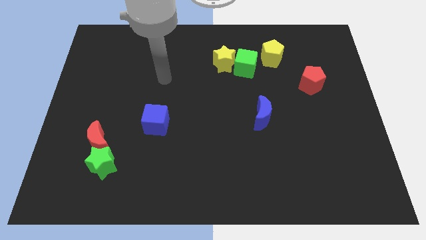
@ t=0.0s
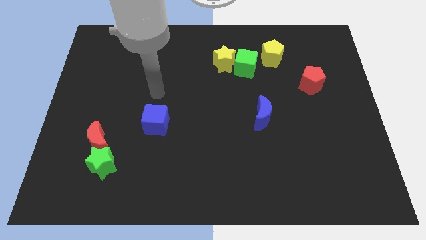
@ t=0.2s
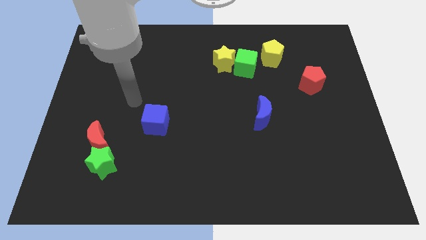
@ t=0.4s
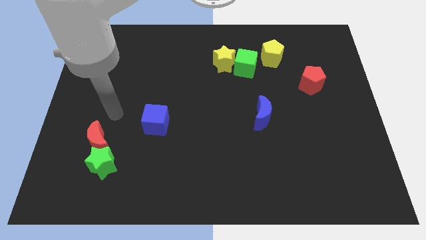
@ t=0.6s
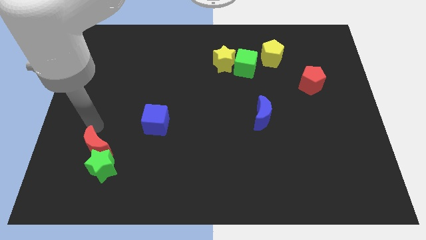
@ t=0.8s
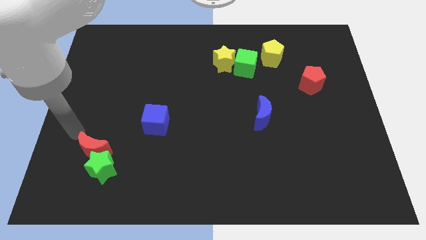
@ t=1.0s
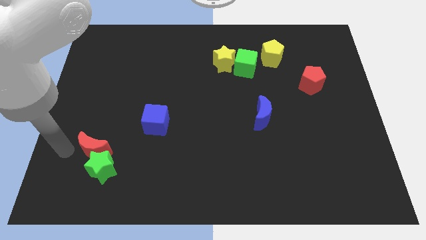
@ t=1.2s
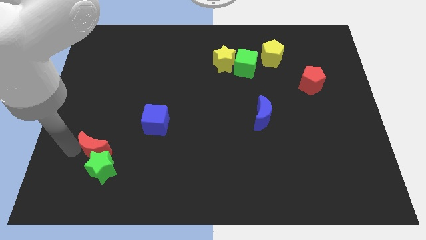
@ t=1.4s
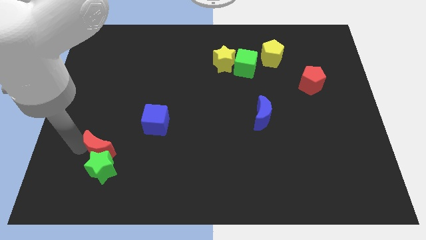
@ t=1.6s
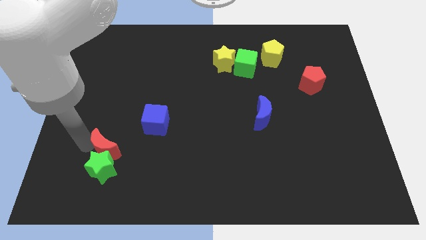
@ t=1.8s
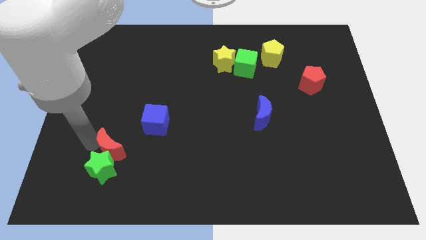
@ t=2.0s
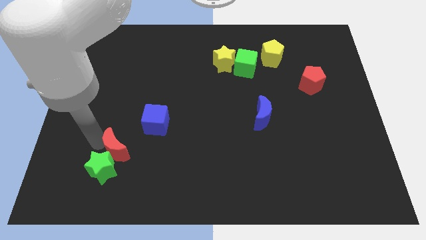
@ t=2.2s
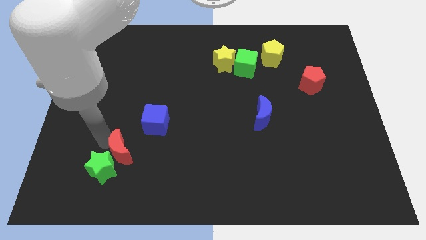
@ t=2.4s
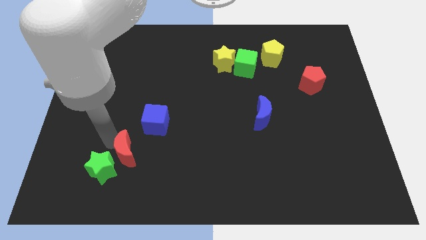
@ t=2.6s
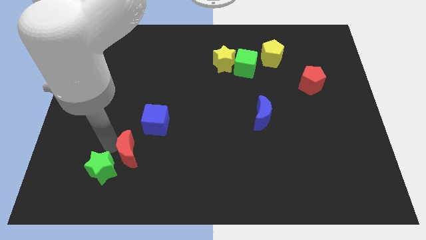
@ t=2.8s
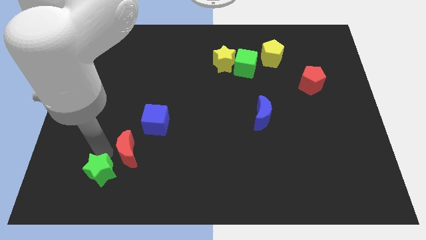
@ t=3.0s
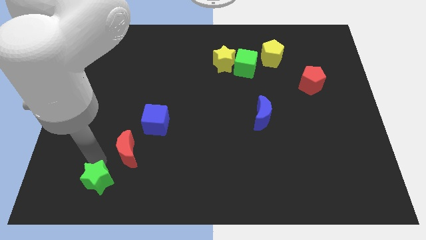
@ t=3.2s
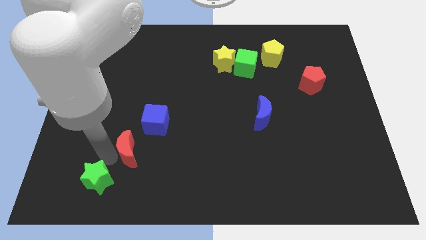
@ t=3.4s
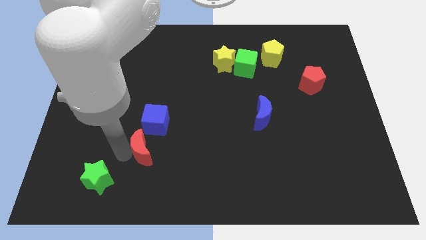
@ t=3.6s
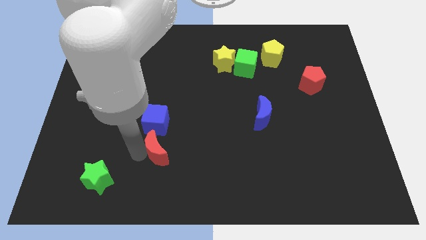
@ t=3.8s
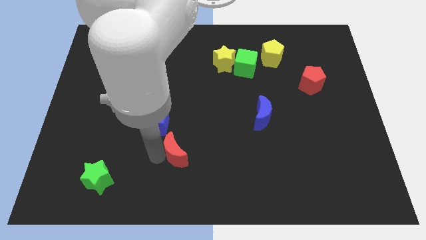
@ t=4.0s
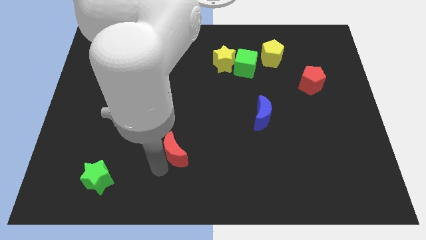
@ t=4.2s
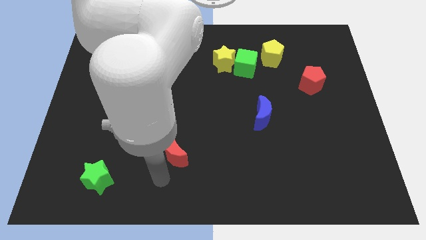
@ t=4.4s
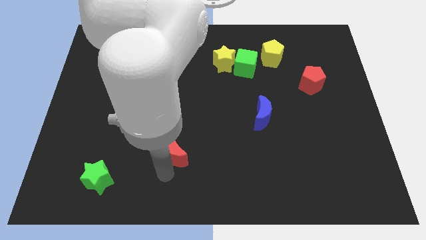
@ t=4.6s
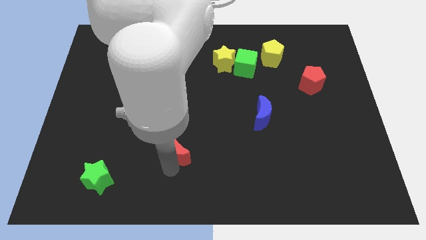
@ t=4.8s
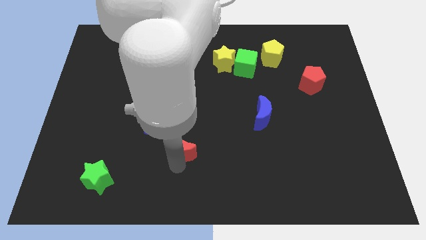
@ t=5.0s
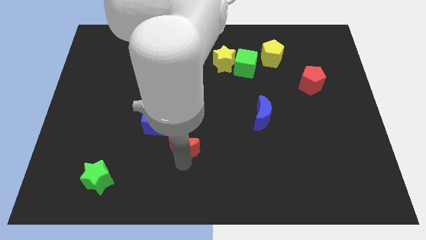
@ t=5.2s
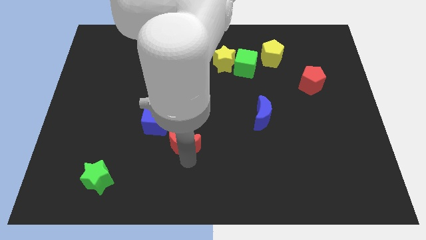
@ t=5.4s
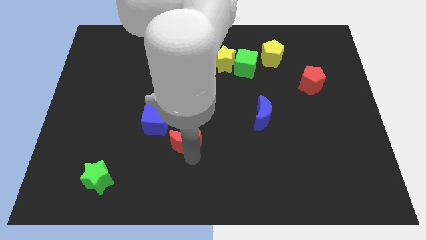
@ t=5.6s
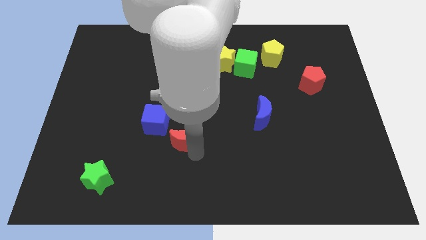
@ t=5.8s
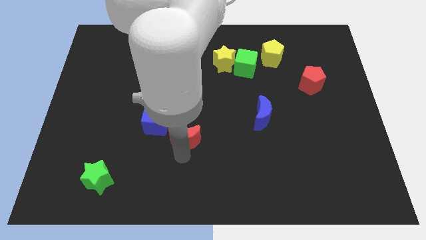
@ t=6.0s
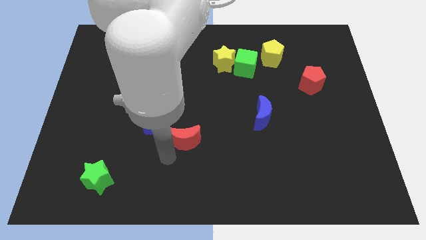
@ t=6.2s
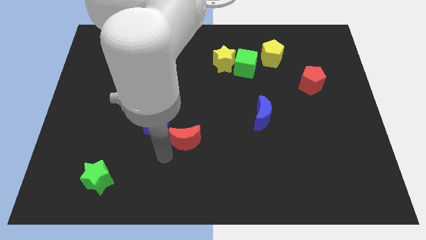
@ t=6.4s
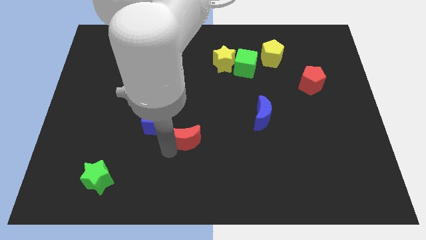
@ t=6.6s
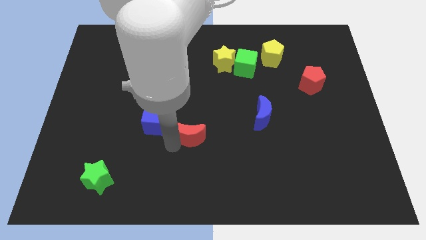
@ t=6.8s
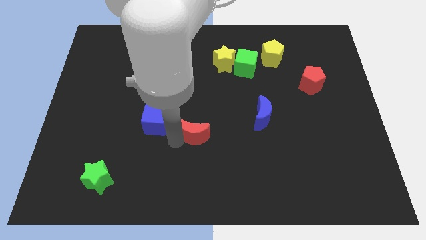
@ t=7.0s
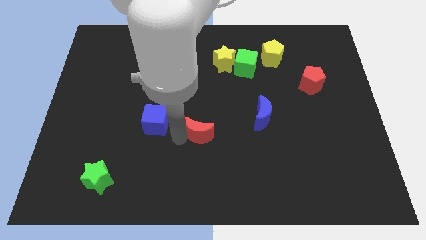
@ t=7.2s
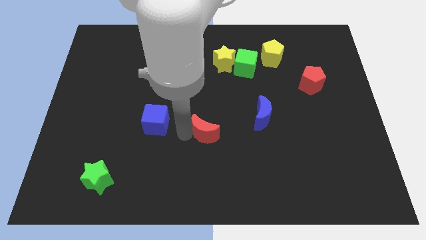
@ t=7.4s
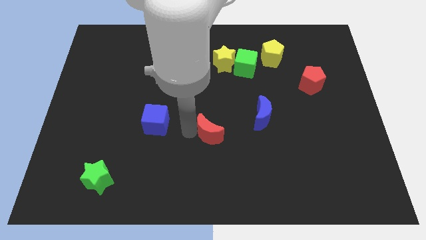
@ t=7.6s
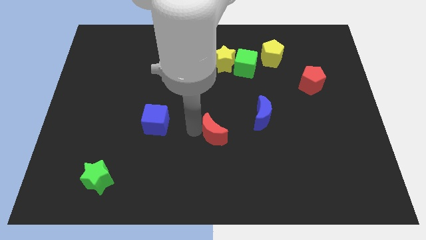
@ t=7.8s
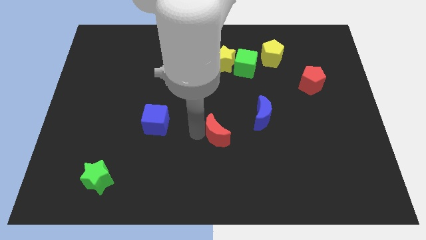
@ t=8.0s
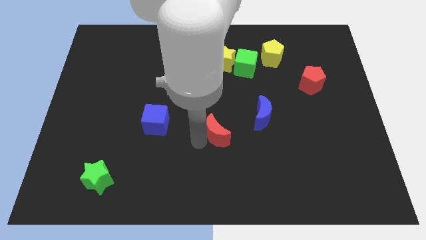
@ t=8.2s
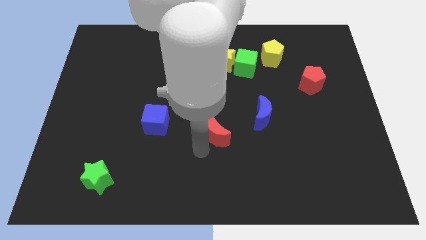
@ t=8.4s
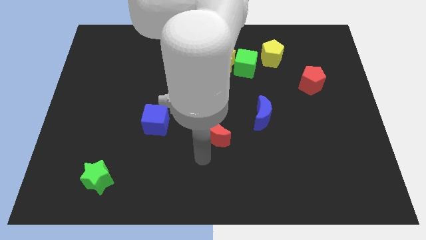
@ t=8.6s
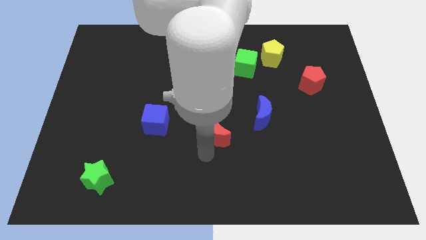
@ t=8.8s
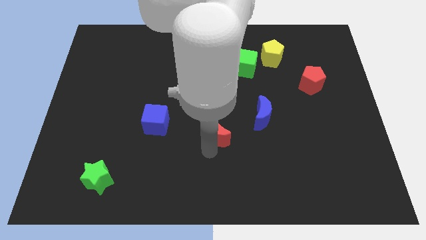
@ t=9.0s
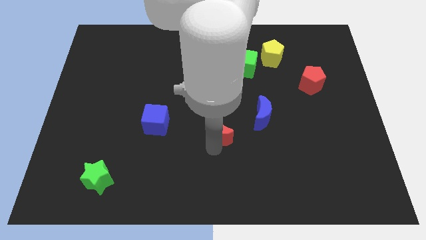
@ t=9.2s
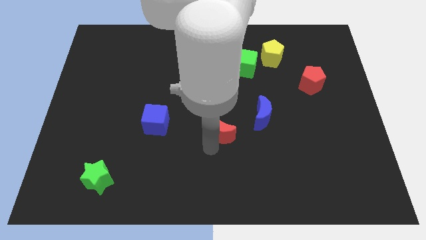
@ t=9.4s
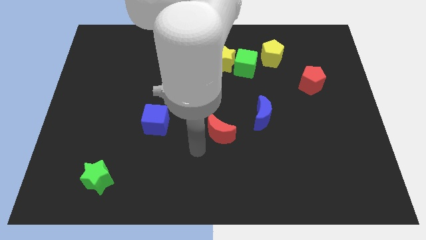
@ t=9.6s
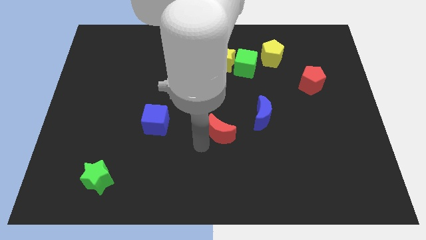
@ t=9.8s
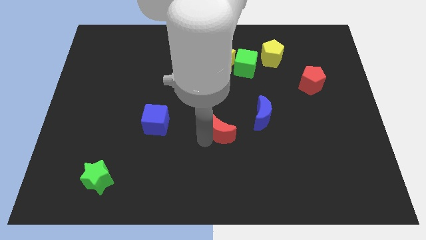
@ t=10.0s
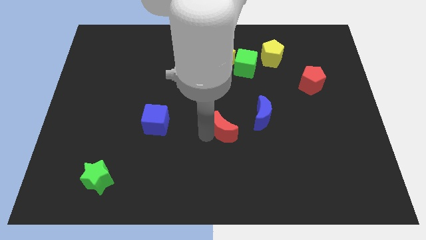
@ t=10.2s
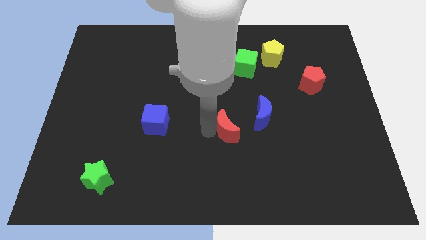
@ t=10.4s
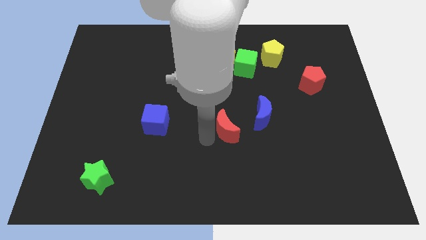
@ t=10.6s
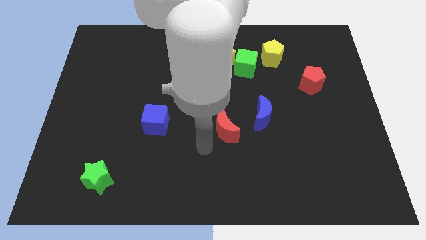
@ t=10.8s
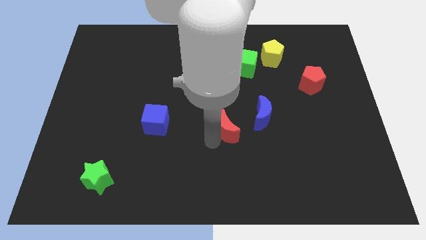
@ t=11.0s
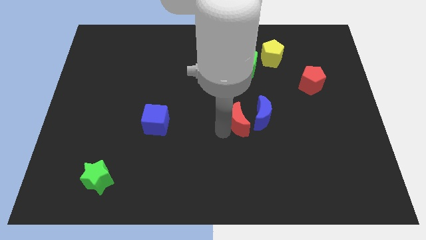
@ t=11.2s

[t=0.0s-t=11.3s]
slide the red moon to the blue moon

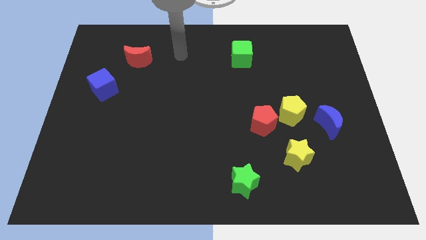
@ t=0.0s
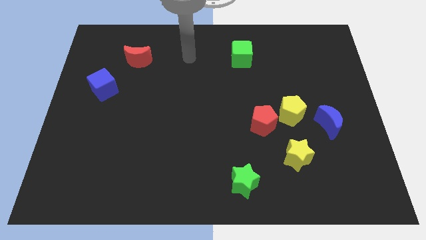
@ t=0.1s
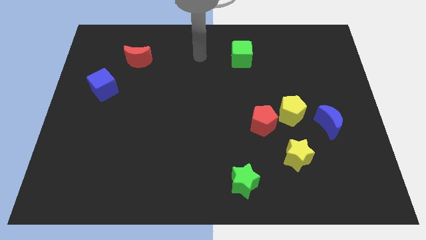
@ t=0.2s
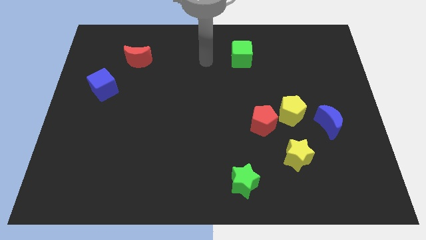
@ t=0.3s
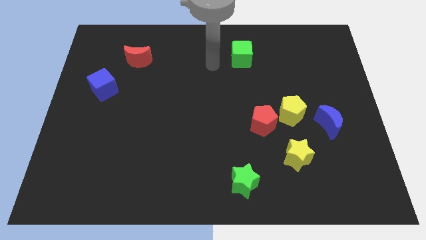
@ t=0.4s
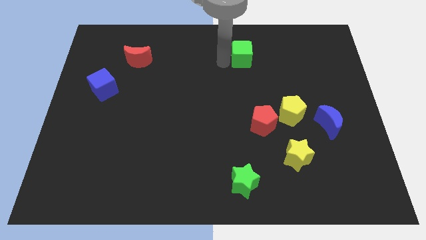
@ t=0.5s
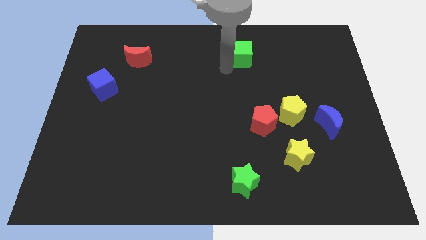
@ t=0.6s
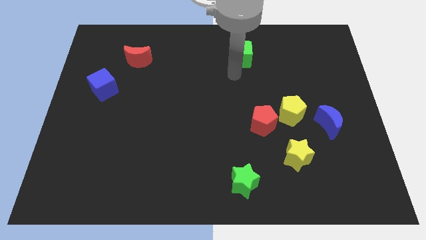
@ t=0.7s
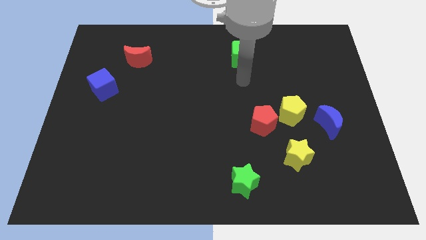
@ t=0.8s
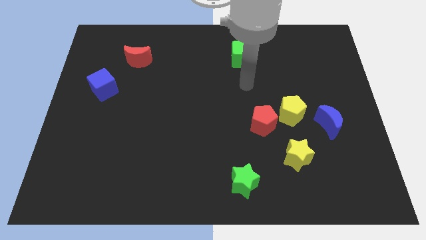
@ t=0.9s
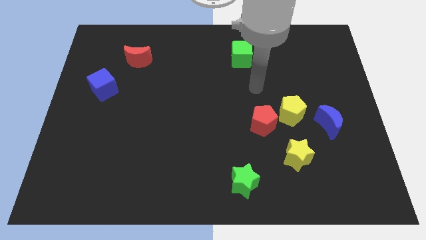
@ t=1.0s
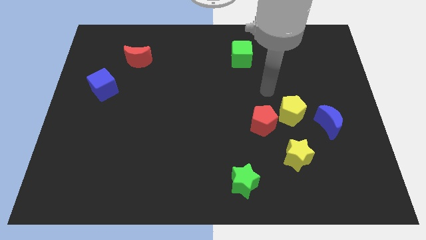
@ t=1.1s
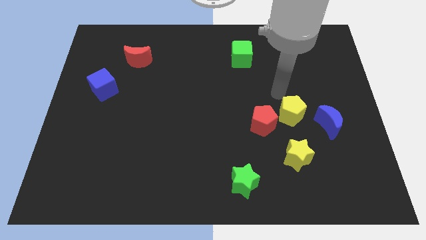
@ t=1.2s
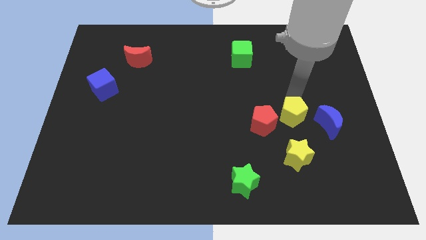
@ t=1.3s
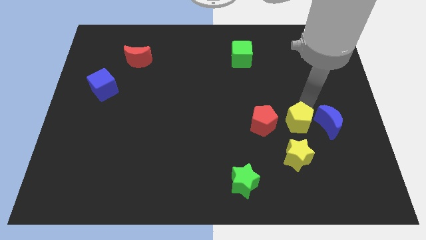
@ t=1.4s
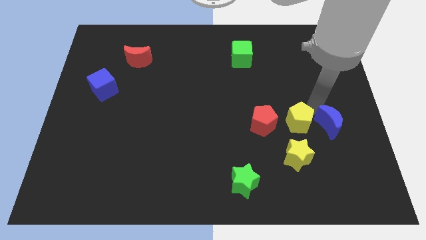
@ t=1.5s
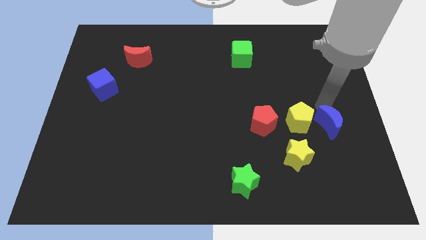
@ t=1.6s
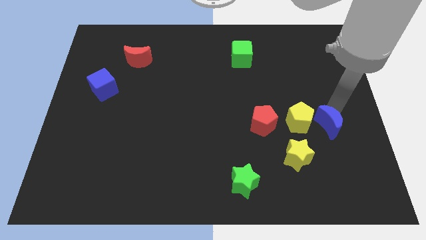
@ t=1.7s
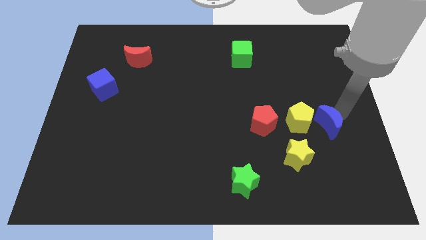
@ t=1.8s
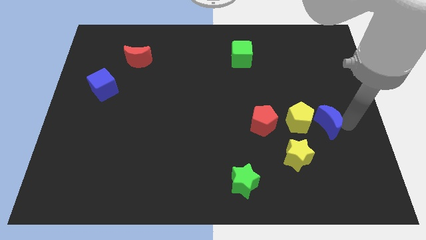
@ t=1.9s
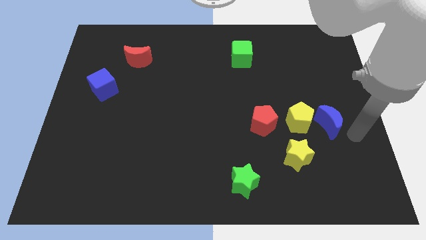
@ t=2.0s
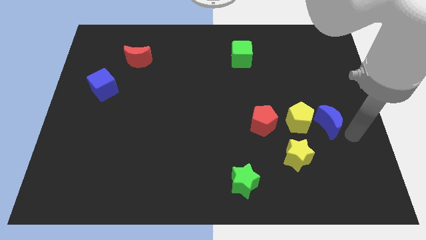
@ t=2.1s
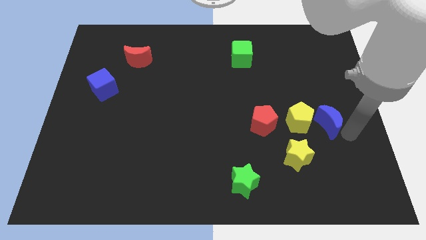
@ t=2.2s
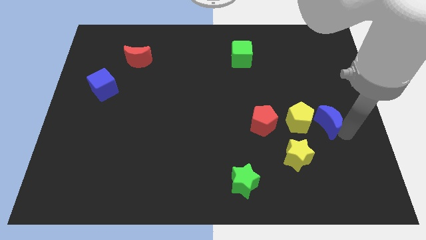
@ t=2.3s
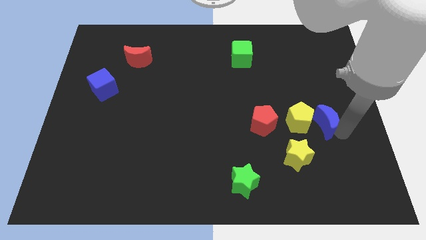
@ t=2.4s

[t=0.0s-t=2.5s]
push the blue moon to the yellow pentagon
